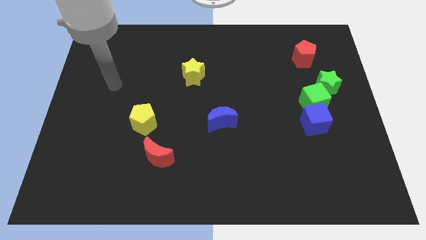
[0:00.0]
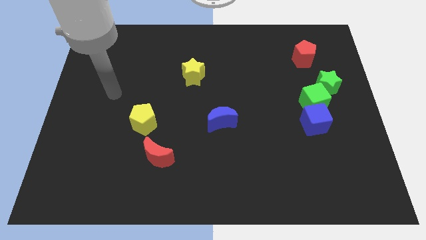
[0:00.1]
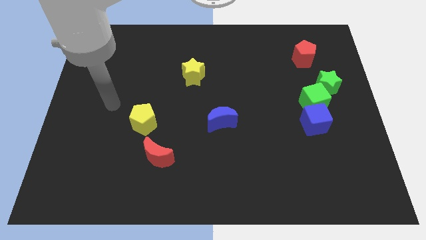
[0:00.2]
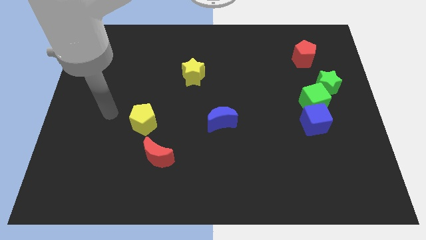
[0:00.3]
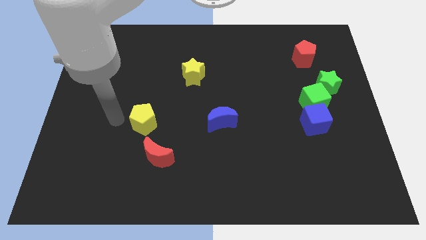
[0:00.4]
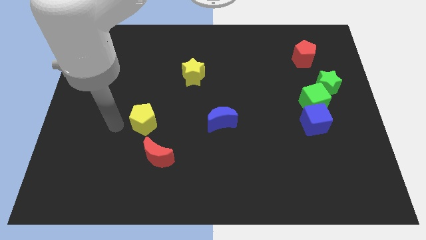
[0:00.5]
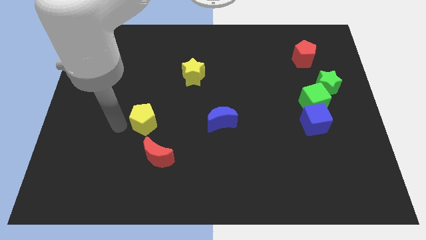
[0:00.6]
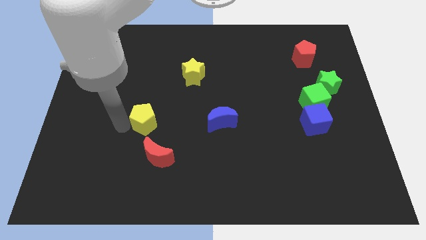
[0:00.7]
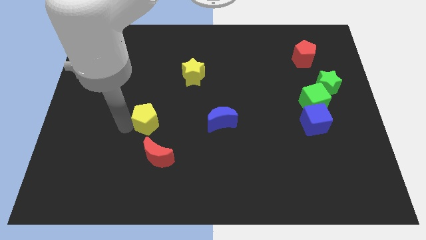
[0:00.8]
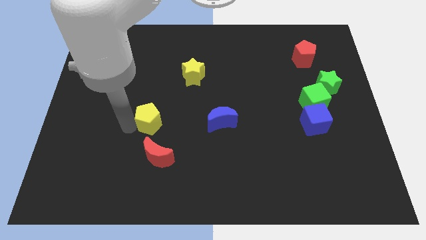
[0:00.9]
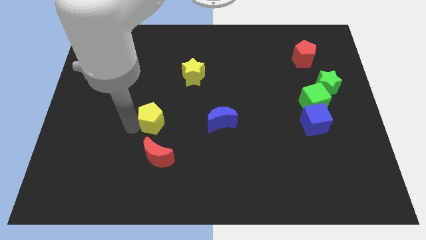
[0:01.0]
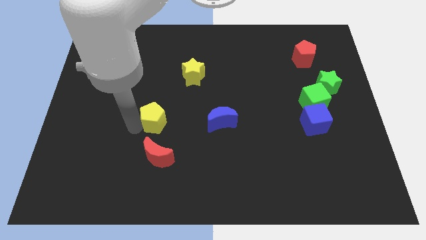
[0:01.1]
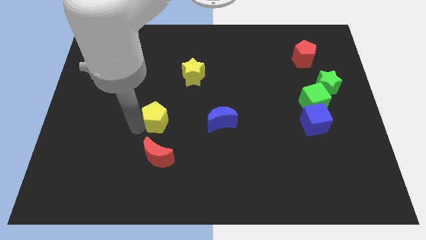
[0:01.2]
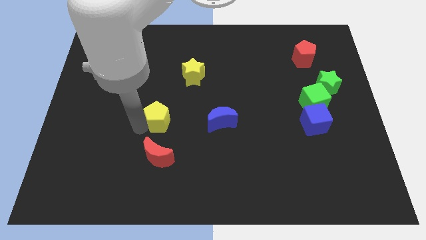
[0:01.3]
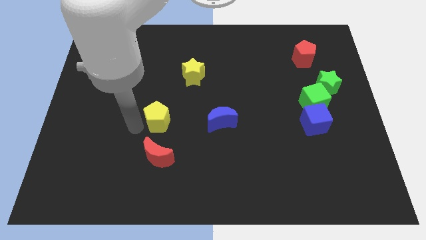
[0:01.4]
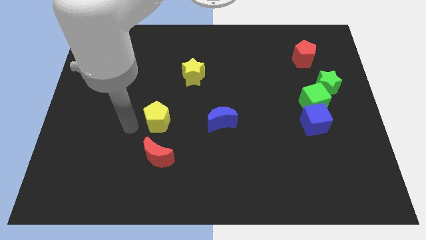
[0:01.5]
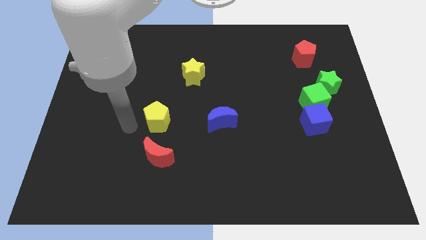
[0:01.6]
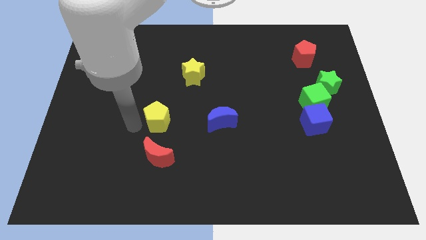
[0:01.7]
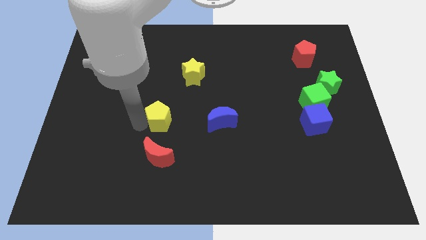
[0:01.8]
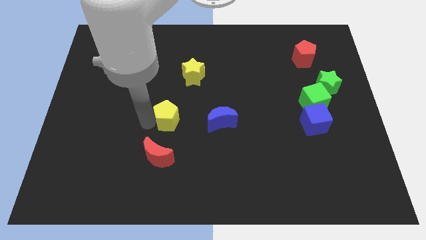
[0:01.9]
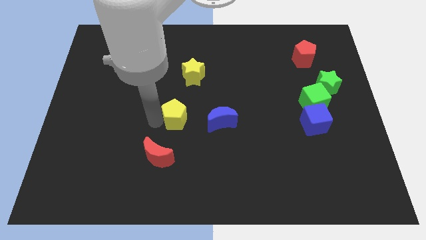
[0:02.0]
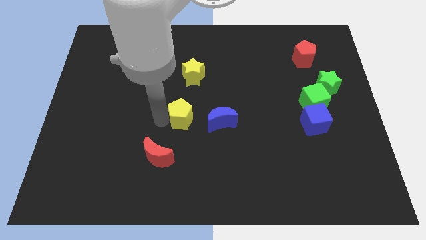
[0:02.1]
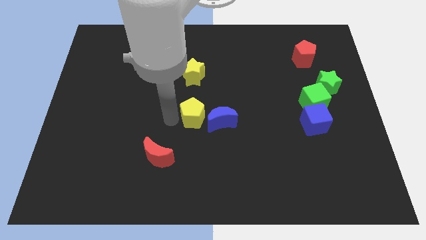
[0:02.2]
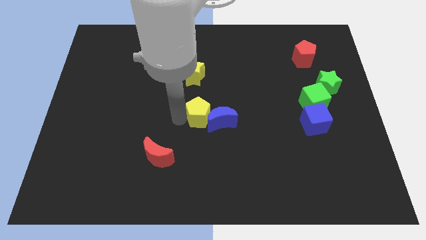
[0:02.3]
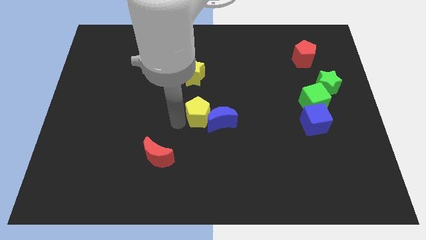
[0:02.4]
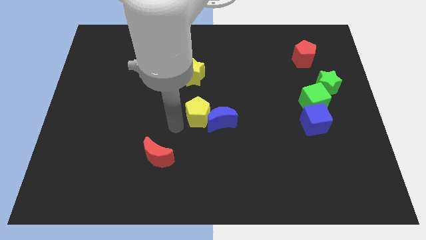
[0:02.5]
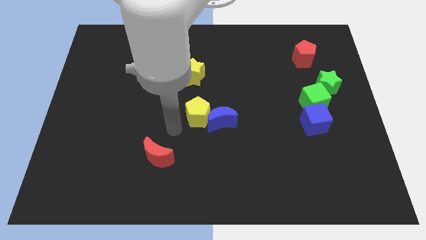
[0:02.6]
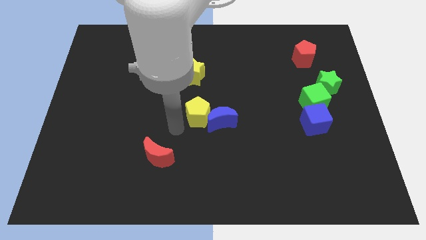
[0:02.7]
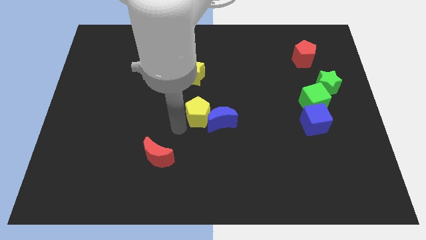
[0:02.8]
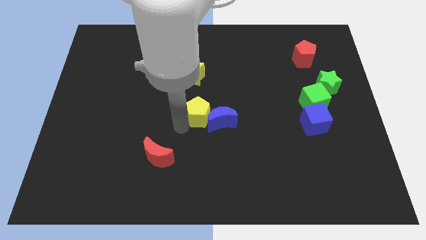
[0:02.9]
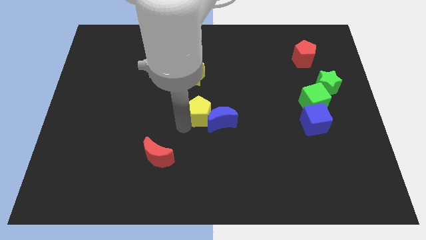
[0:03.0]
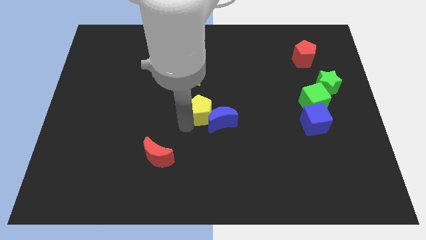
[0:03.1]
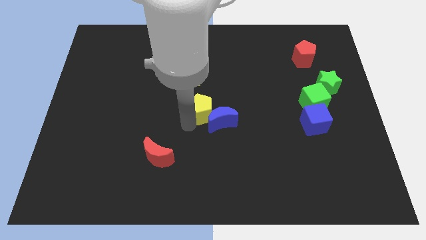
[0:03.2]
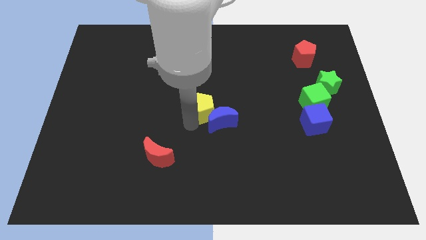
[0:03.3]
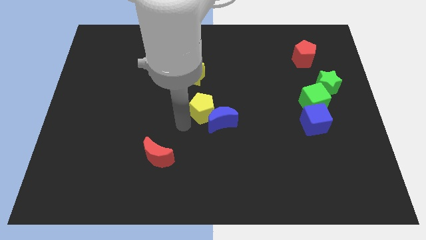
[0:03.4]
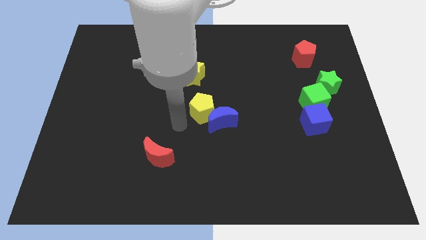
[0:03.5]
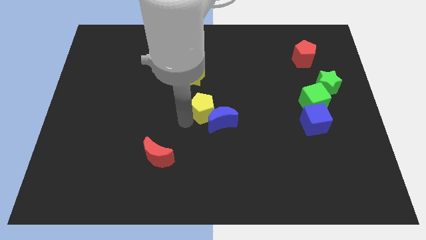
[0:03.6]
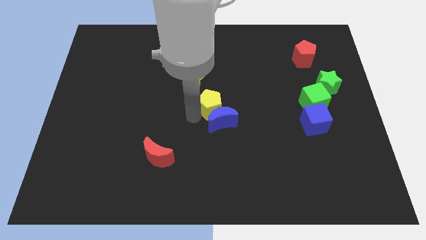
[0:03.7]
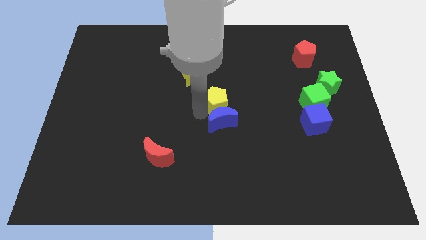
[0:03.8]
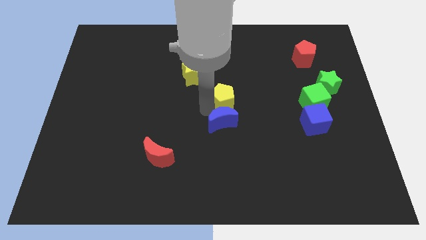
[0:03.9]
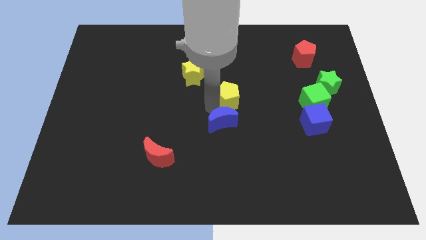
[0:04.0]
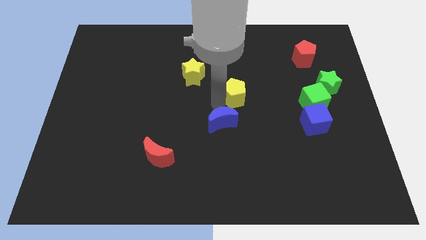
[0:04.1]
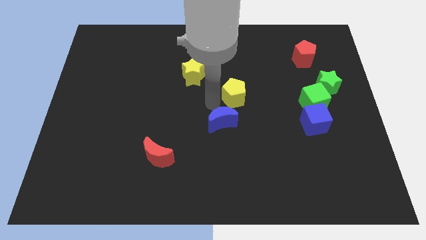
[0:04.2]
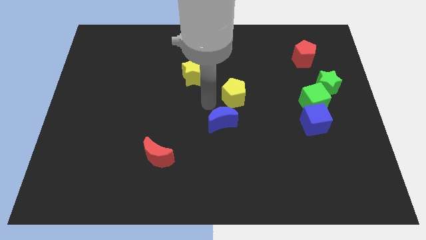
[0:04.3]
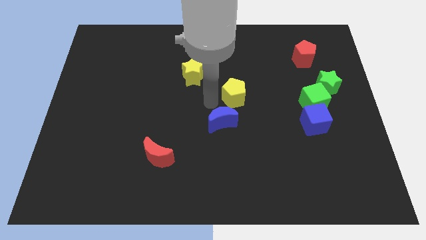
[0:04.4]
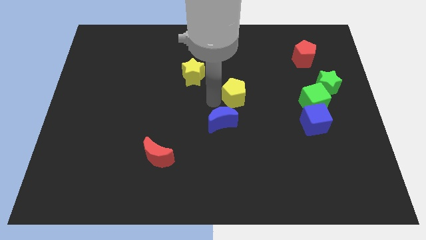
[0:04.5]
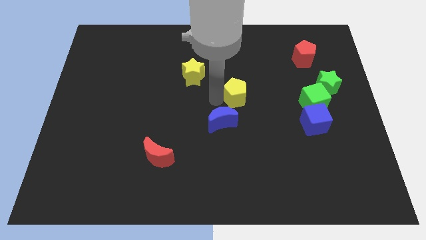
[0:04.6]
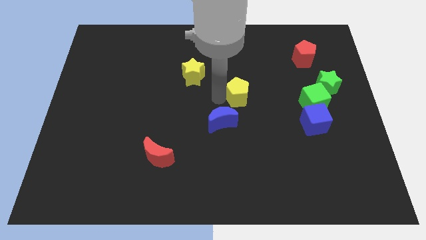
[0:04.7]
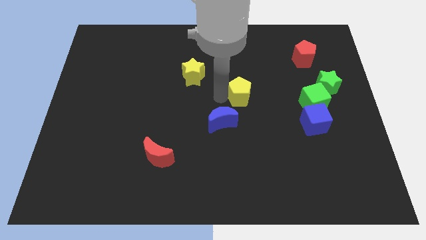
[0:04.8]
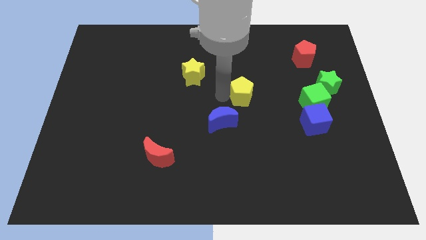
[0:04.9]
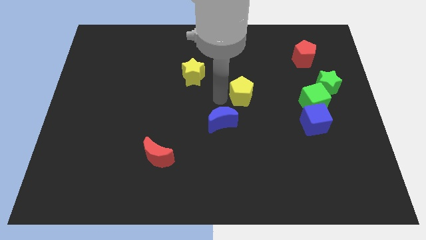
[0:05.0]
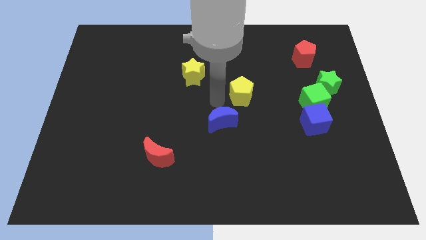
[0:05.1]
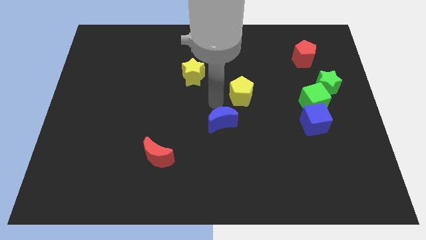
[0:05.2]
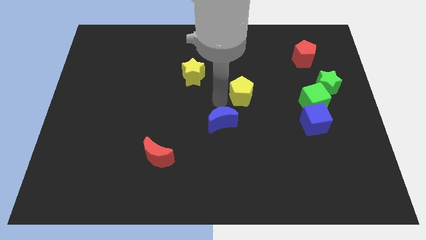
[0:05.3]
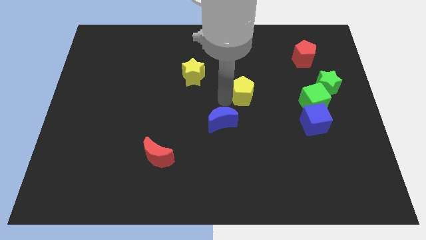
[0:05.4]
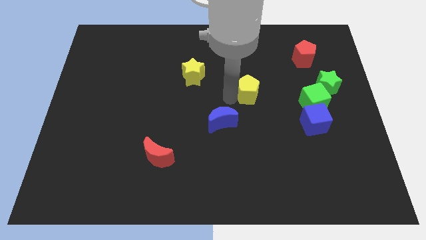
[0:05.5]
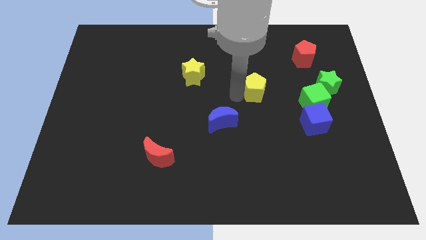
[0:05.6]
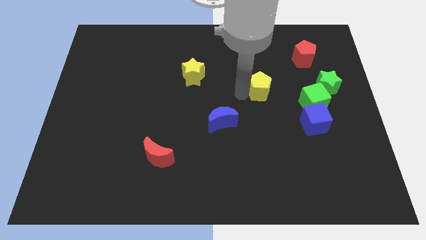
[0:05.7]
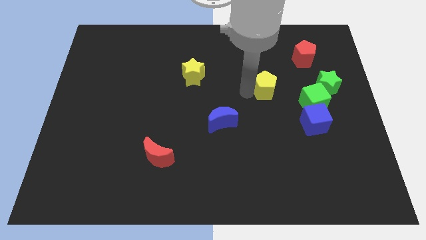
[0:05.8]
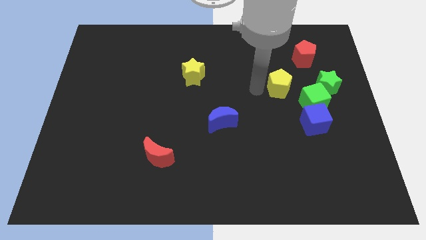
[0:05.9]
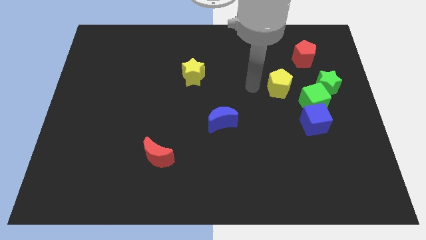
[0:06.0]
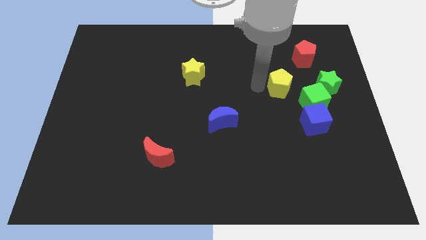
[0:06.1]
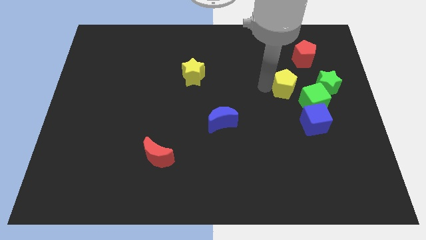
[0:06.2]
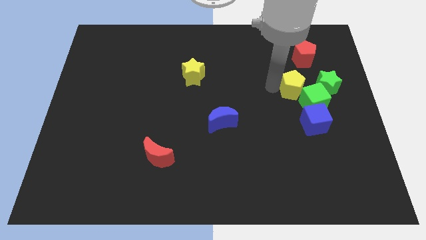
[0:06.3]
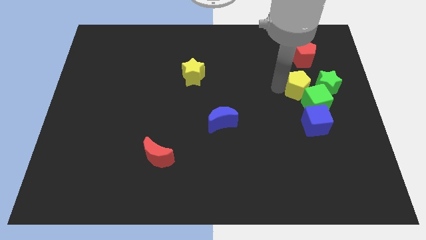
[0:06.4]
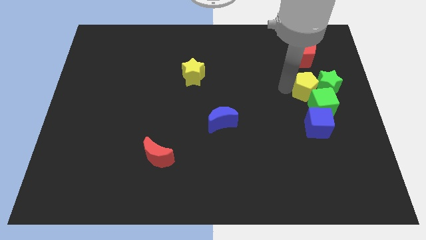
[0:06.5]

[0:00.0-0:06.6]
move the yellow pentagon towards the green star
